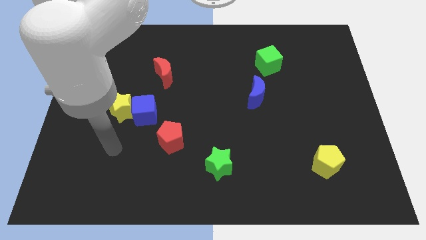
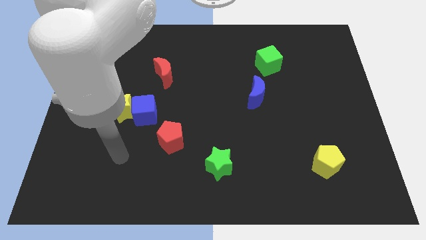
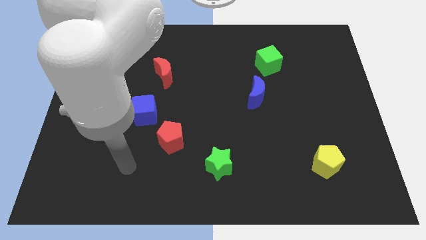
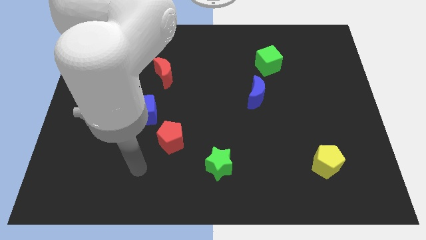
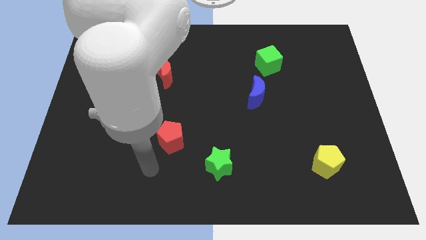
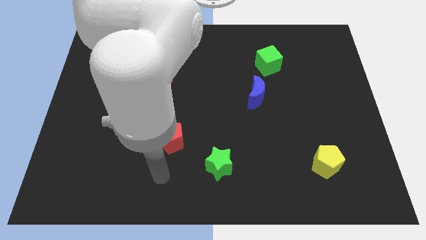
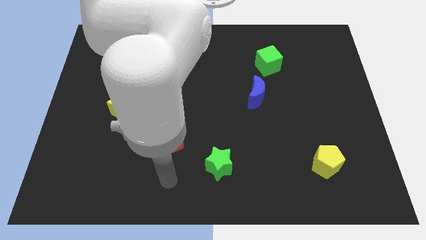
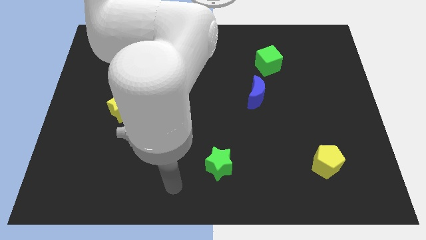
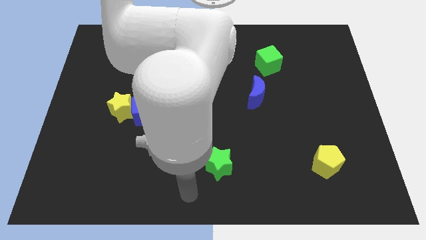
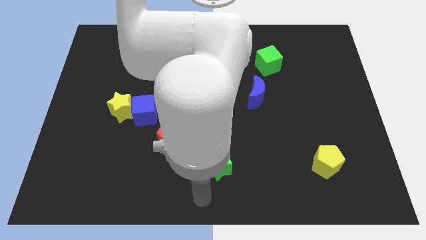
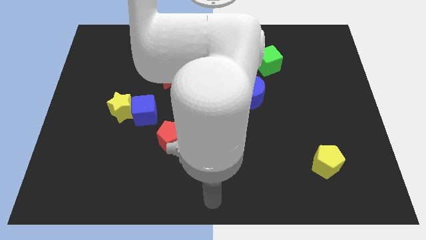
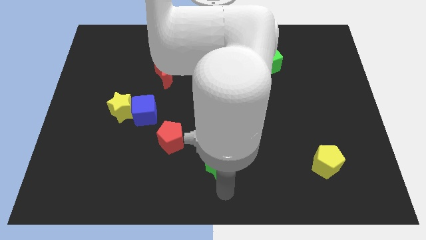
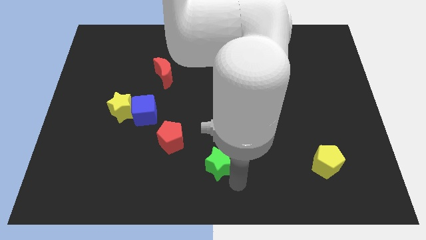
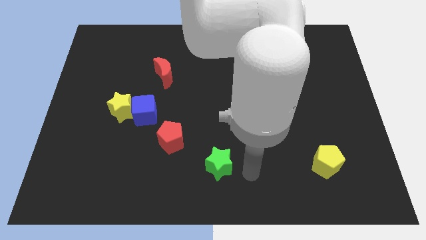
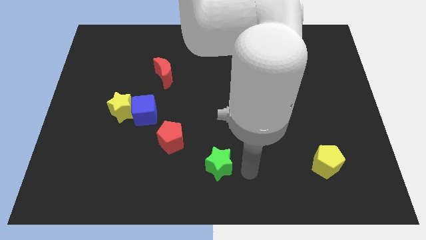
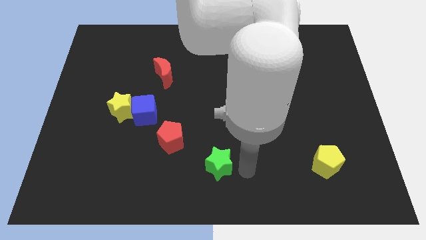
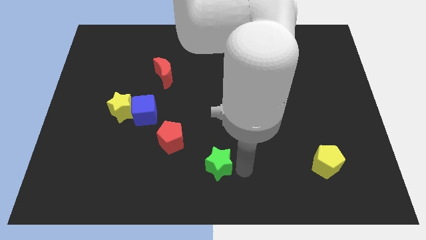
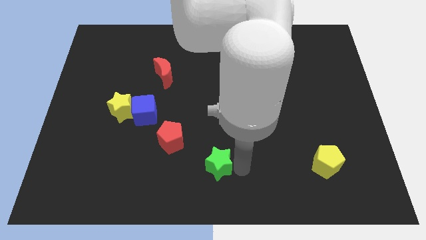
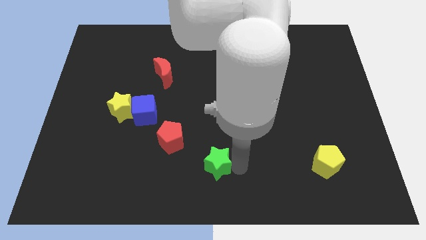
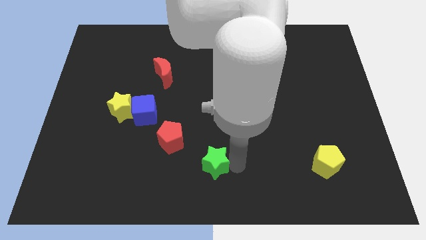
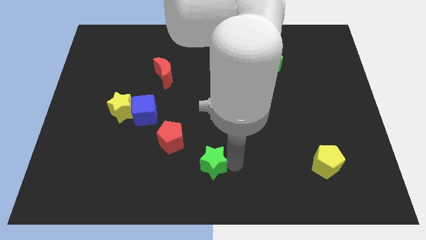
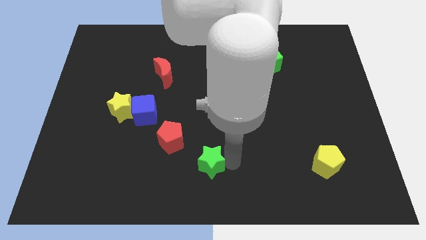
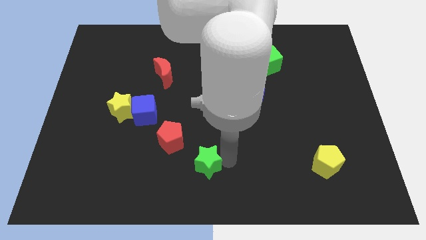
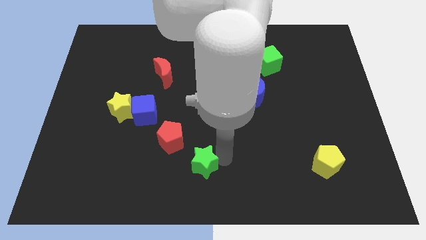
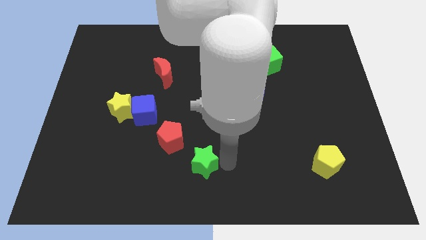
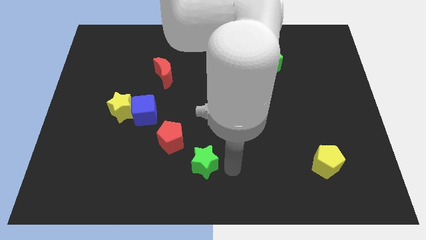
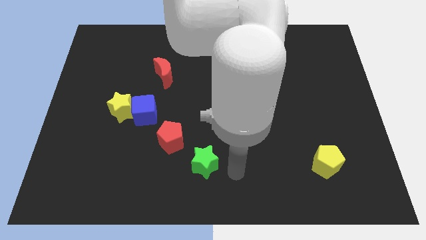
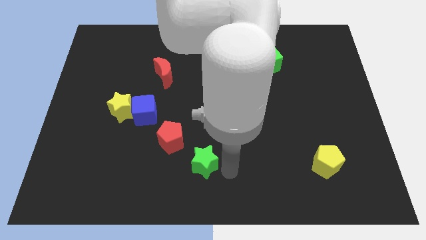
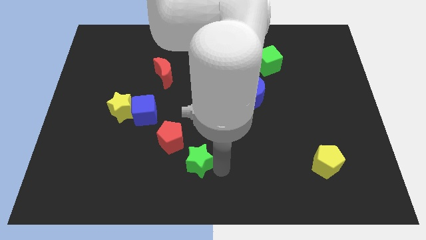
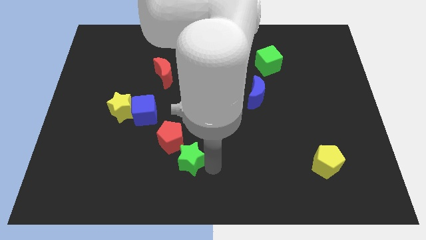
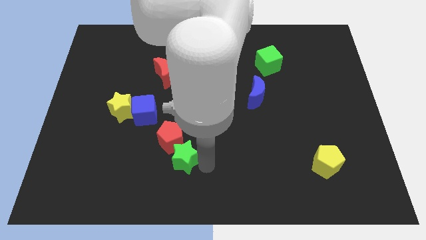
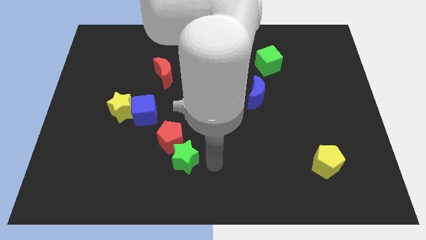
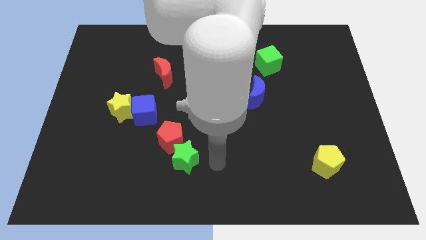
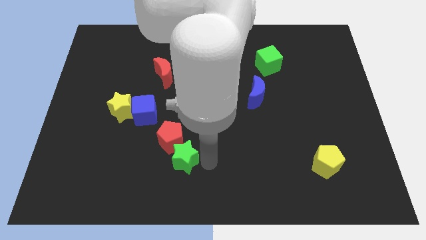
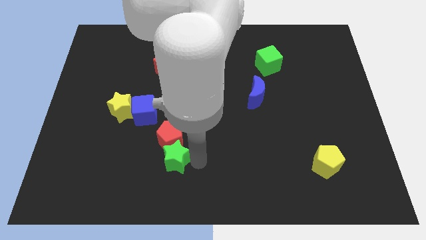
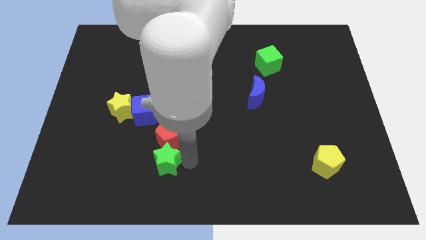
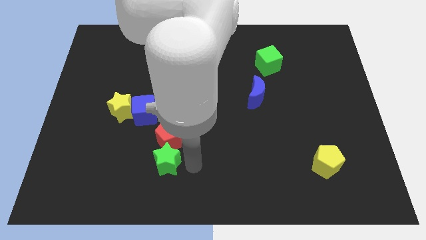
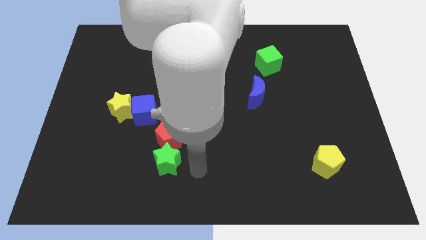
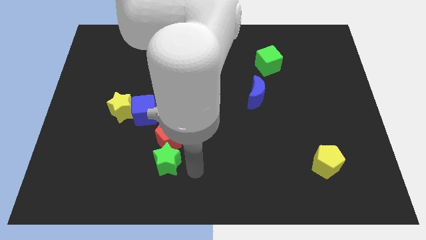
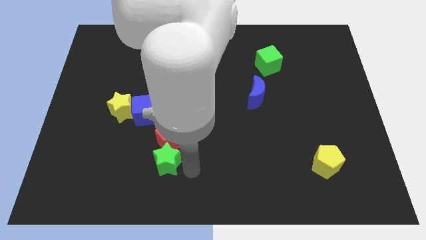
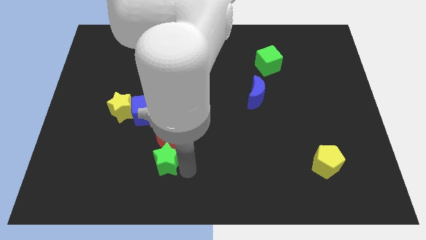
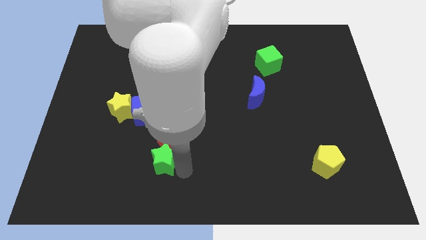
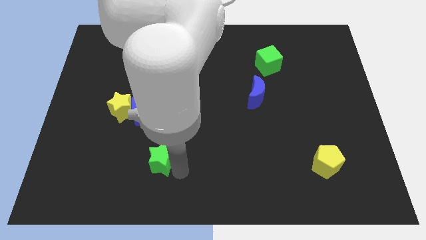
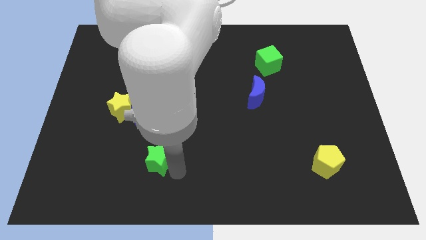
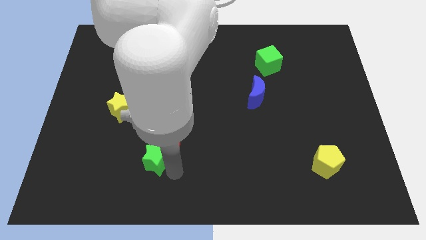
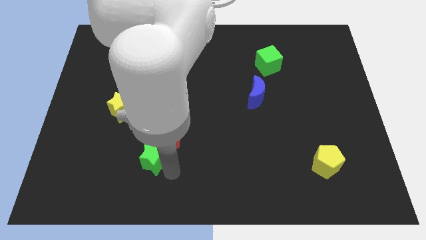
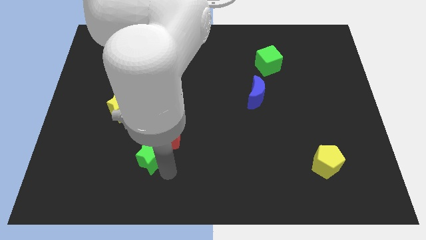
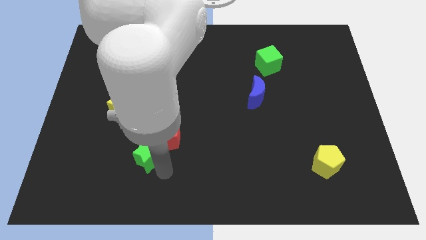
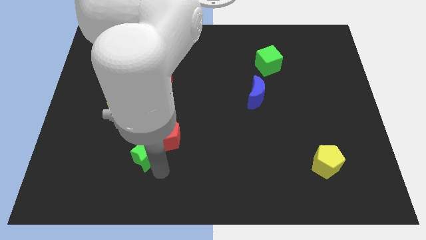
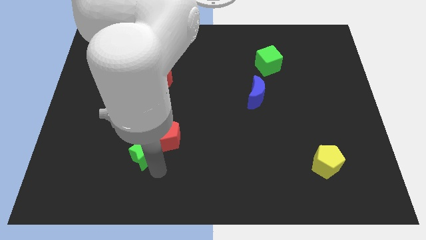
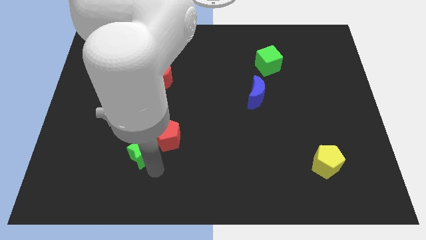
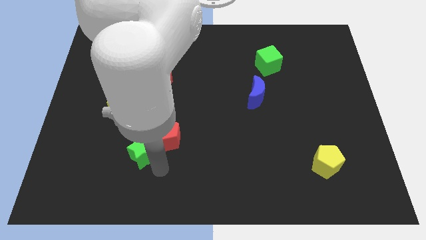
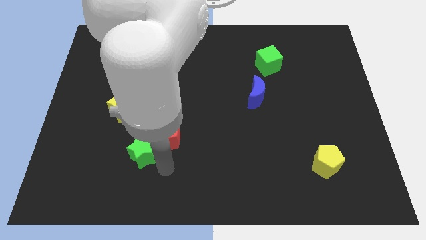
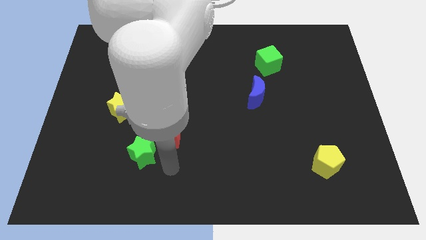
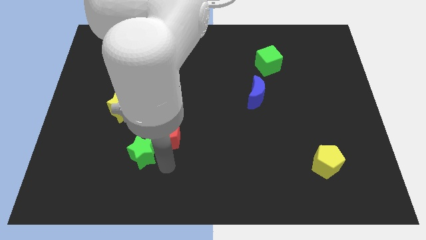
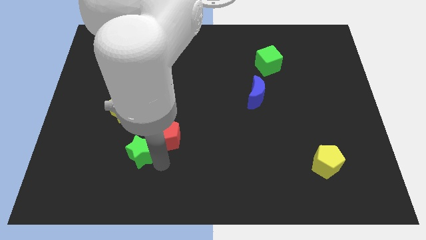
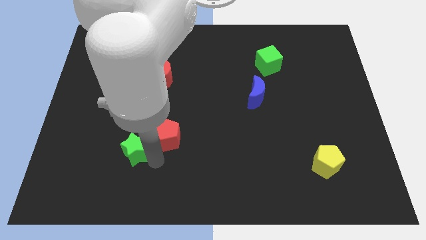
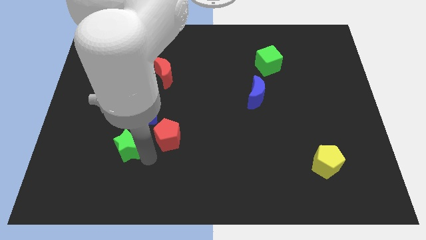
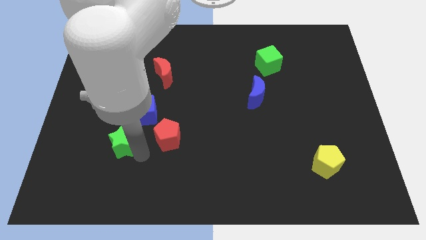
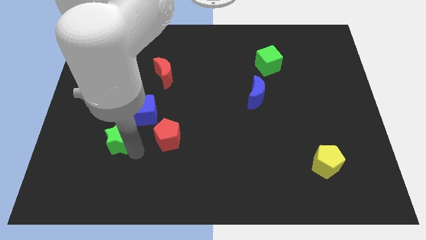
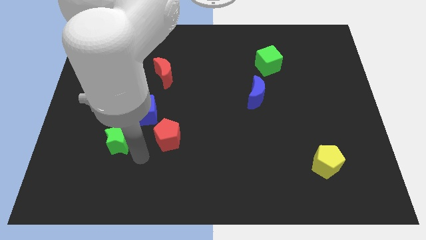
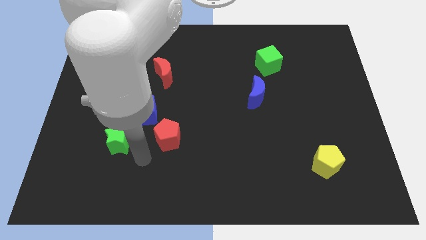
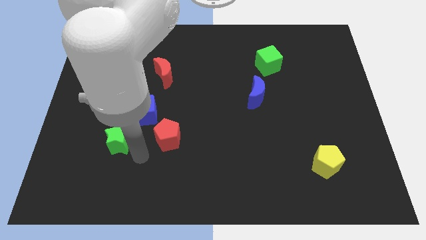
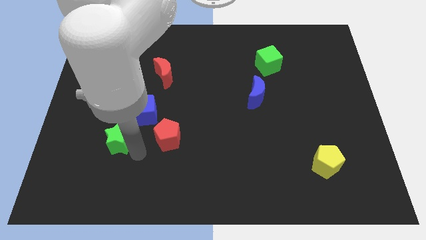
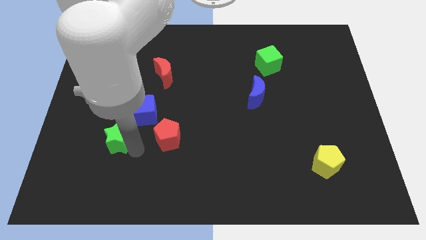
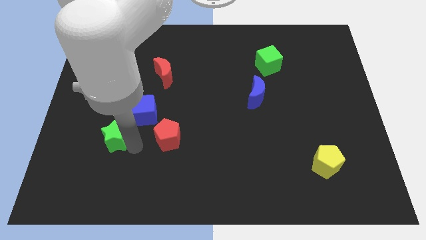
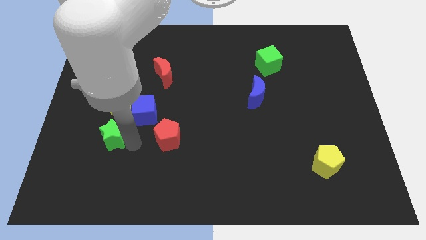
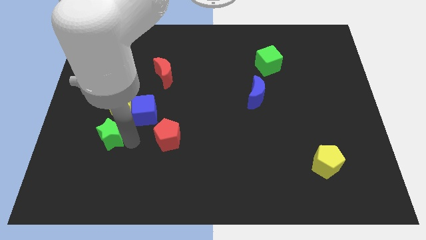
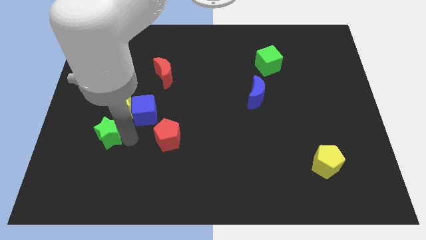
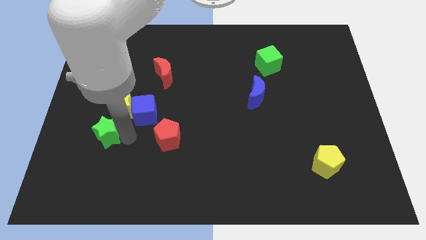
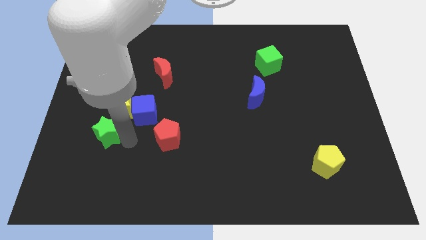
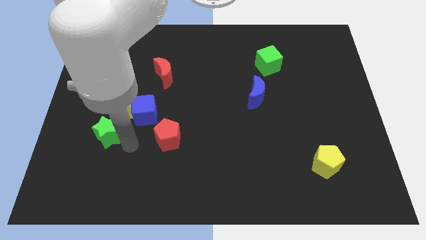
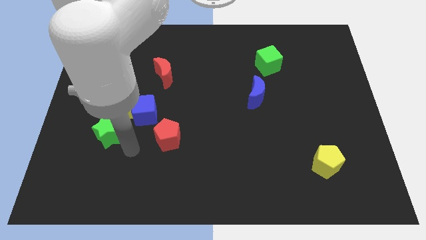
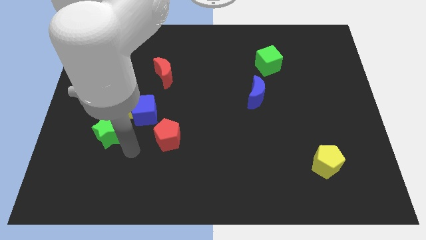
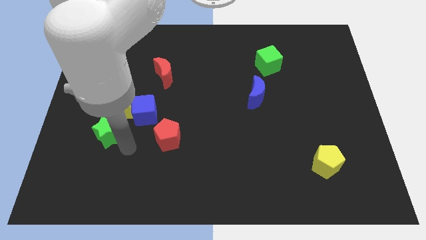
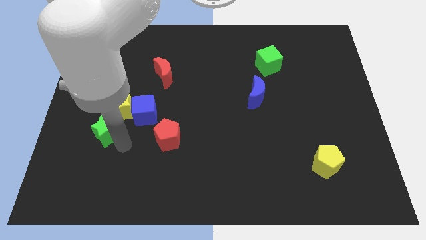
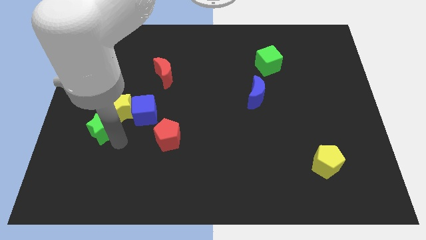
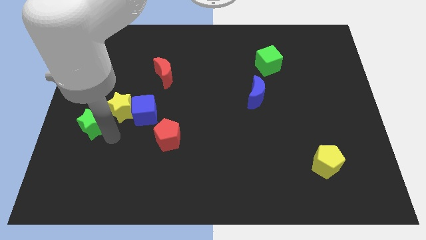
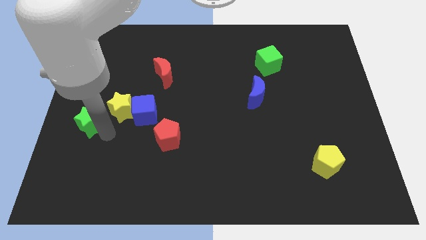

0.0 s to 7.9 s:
move the green star to the center left
